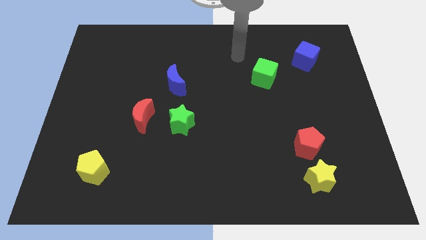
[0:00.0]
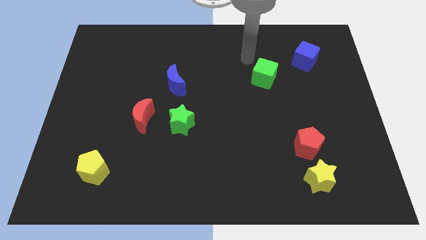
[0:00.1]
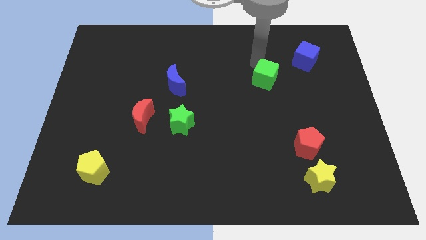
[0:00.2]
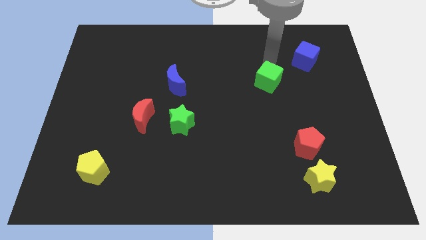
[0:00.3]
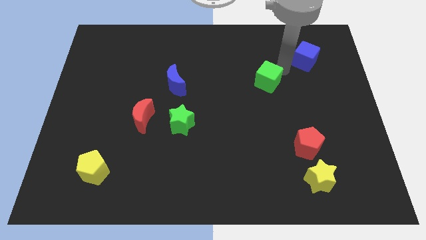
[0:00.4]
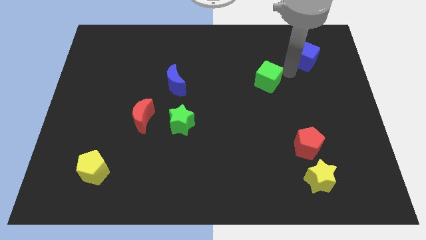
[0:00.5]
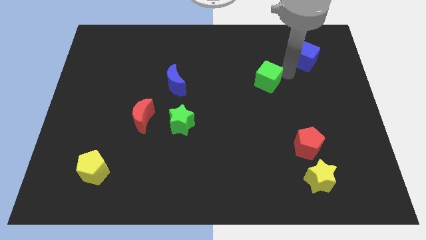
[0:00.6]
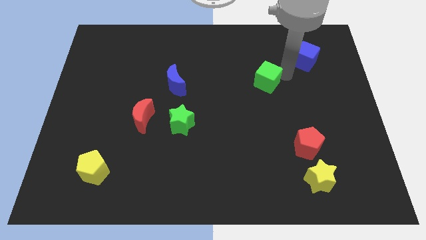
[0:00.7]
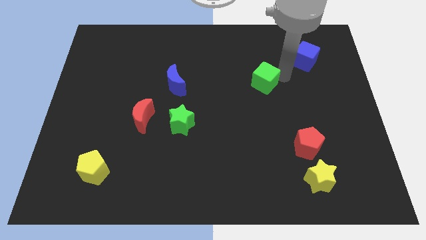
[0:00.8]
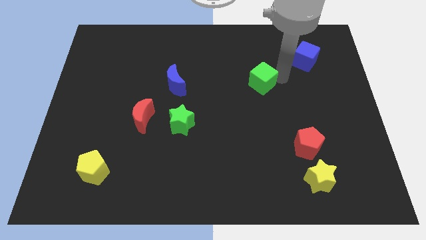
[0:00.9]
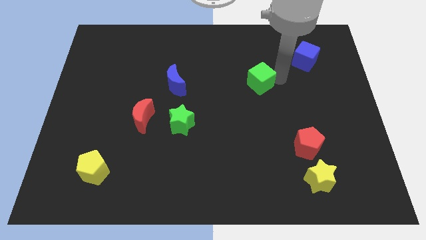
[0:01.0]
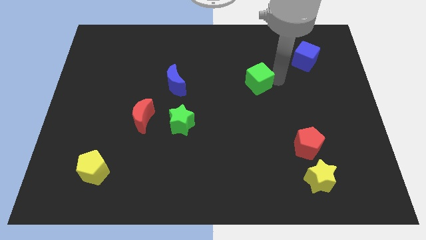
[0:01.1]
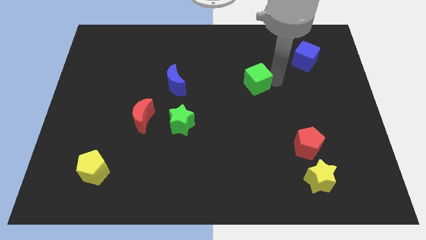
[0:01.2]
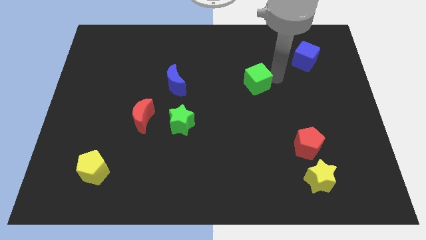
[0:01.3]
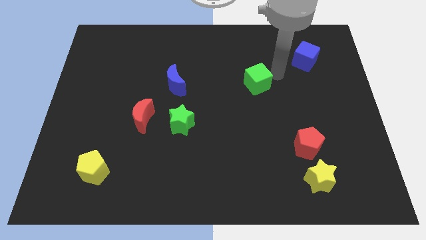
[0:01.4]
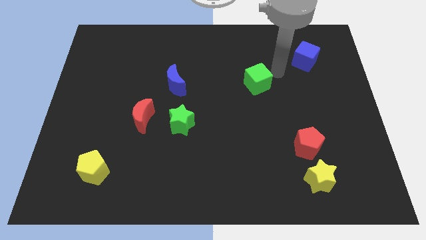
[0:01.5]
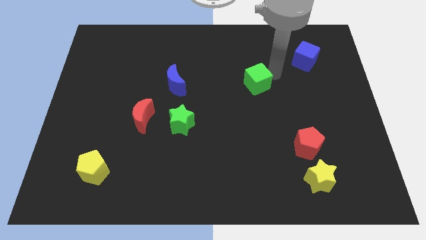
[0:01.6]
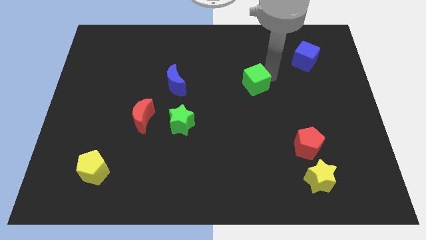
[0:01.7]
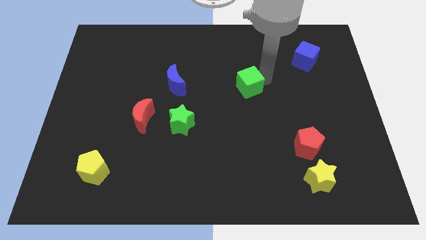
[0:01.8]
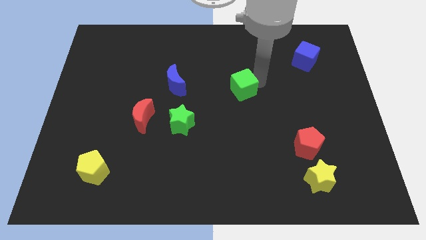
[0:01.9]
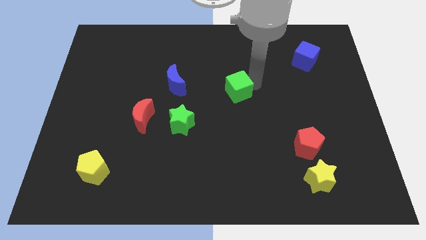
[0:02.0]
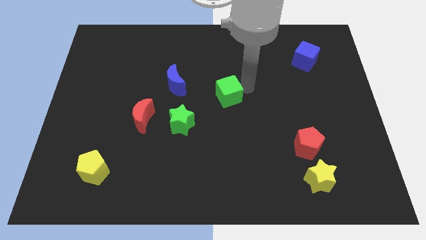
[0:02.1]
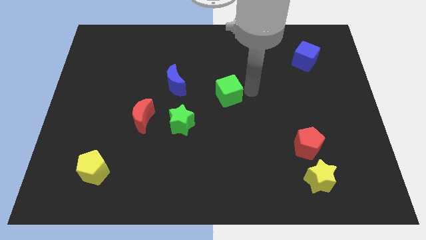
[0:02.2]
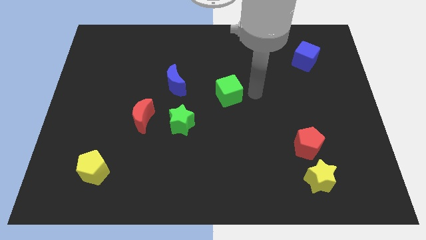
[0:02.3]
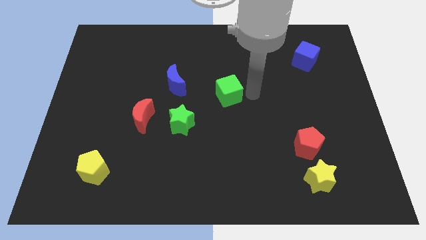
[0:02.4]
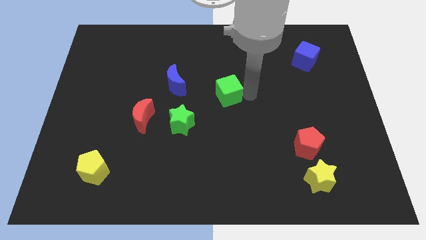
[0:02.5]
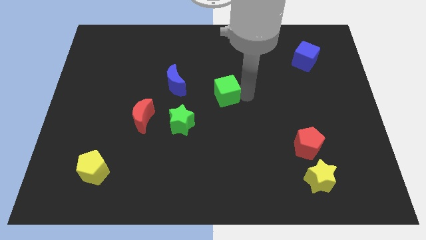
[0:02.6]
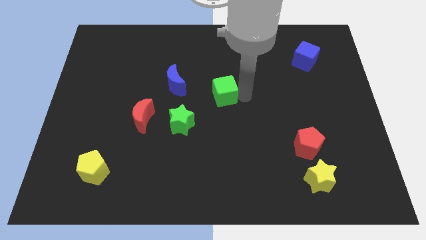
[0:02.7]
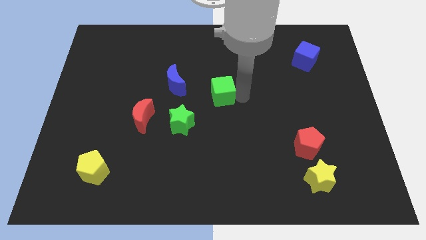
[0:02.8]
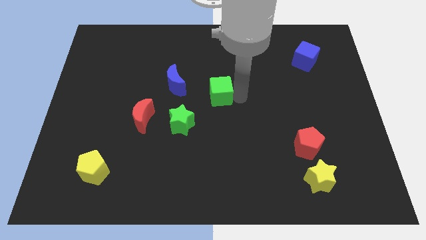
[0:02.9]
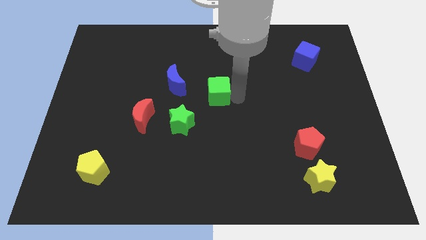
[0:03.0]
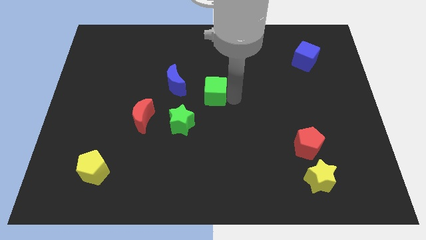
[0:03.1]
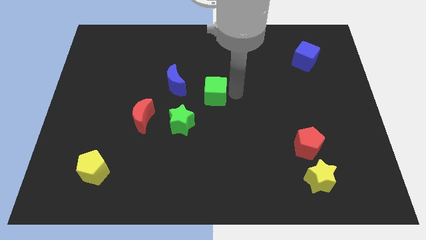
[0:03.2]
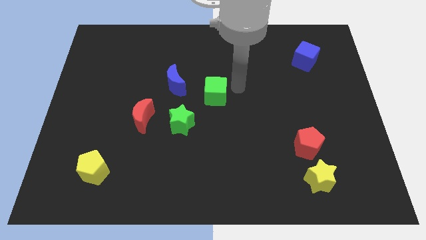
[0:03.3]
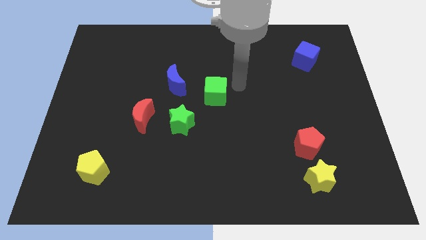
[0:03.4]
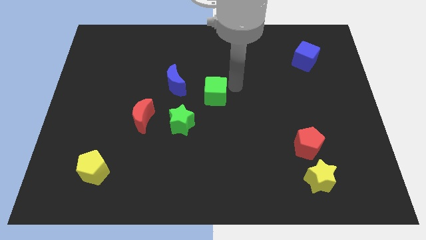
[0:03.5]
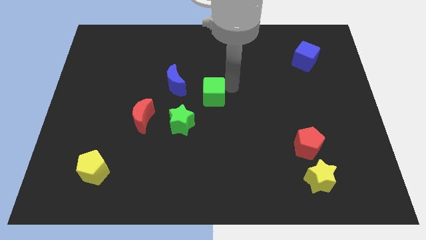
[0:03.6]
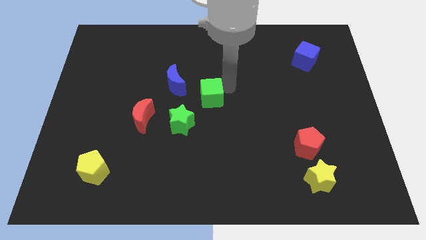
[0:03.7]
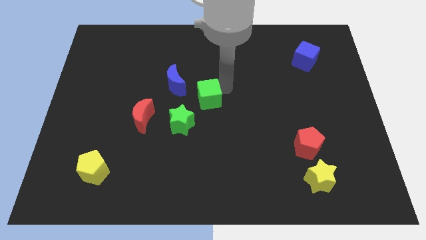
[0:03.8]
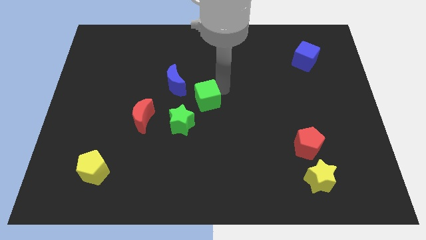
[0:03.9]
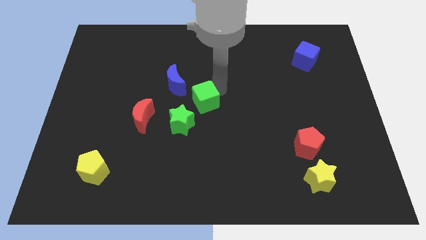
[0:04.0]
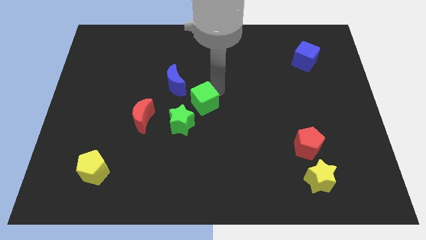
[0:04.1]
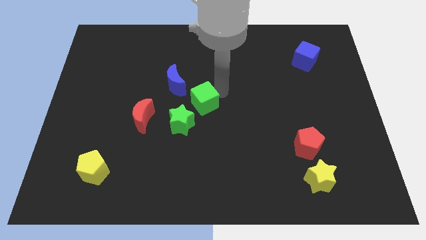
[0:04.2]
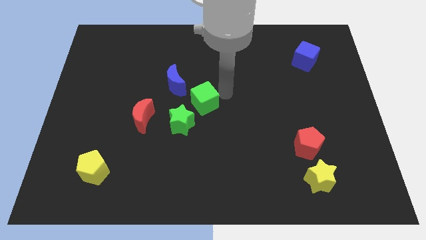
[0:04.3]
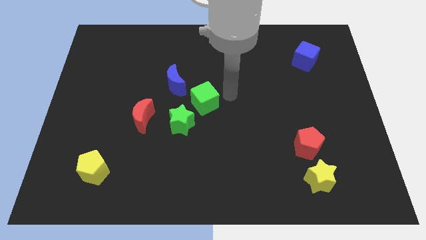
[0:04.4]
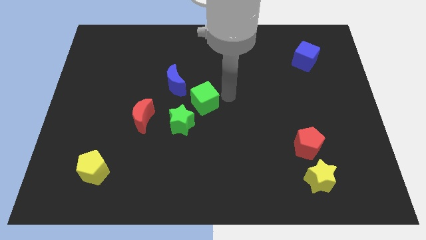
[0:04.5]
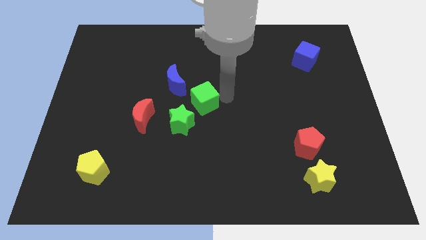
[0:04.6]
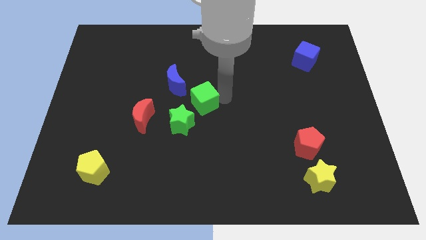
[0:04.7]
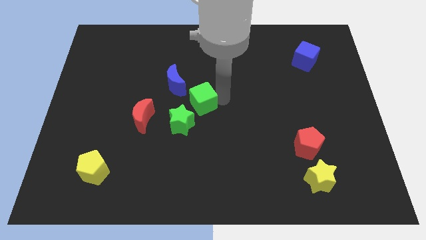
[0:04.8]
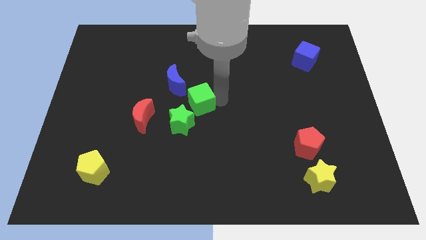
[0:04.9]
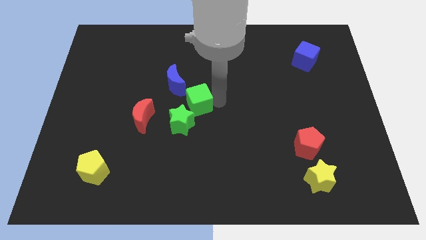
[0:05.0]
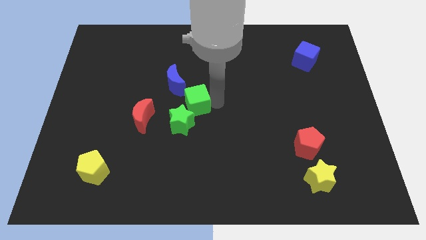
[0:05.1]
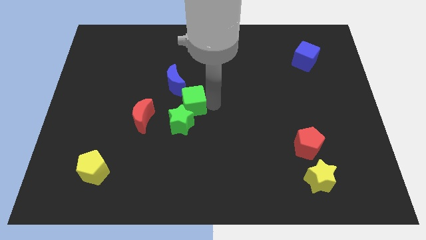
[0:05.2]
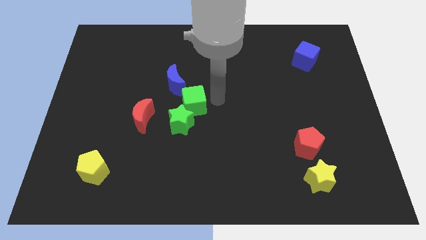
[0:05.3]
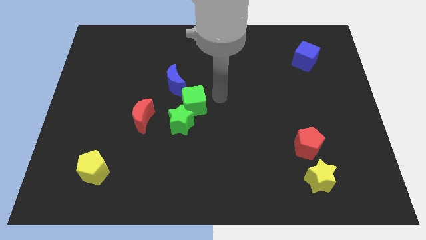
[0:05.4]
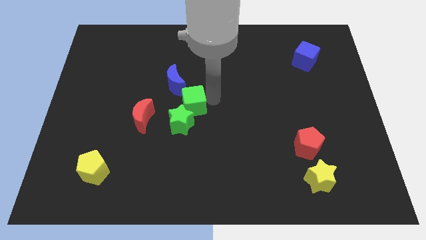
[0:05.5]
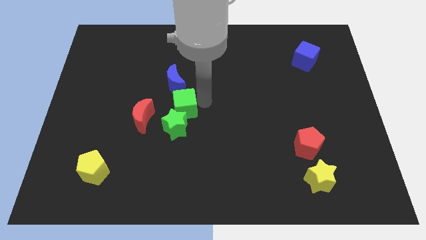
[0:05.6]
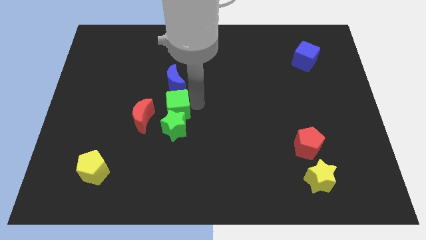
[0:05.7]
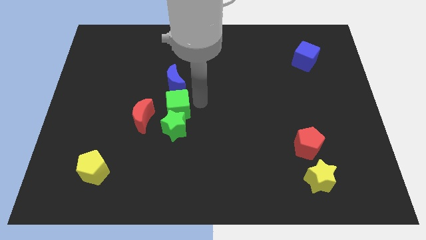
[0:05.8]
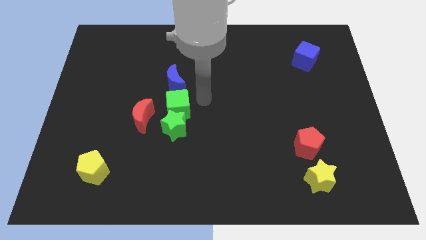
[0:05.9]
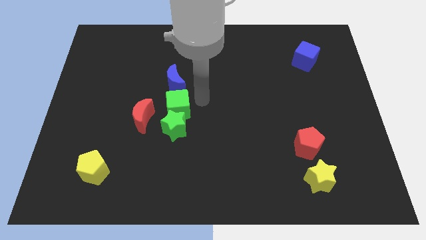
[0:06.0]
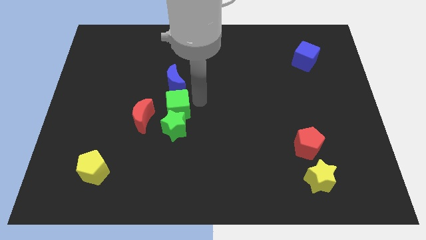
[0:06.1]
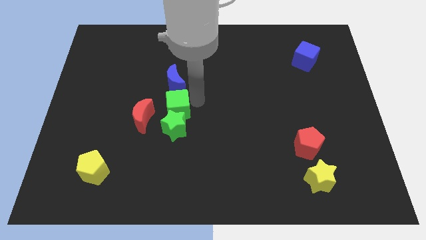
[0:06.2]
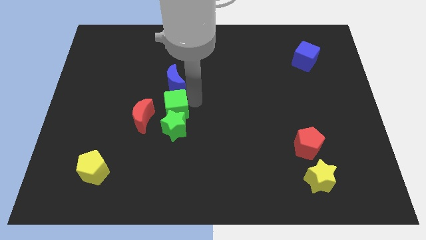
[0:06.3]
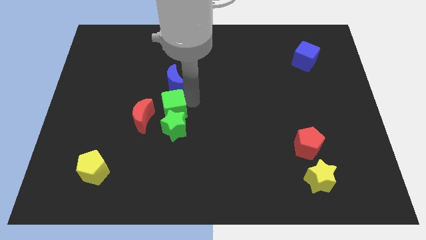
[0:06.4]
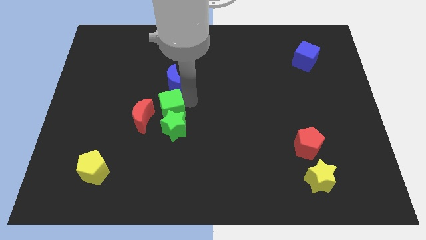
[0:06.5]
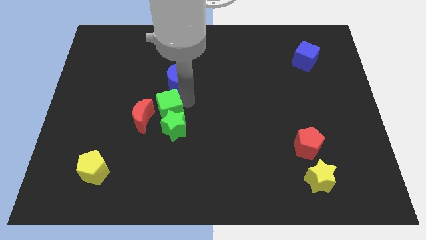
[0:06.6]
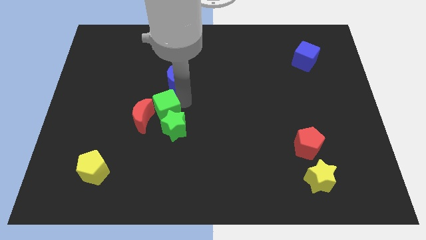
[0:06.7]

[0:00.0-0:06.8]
slide the green cube towards the red moon
